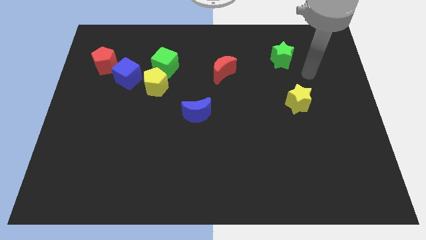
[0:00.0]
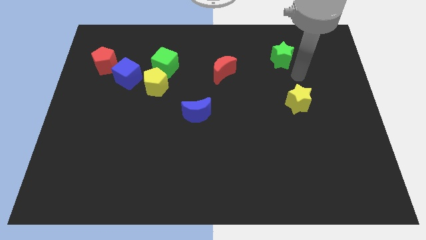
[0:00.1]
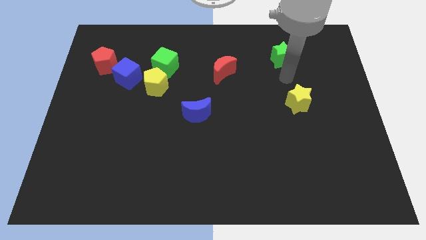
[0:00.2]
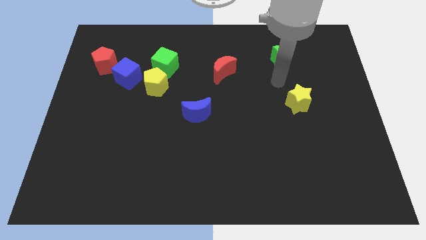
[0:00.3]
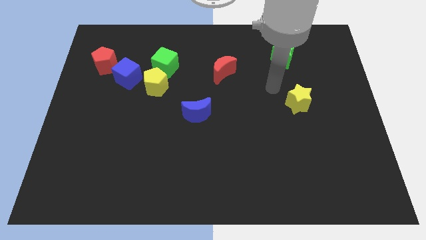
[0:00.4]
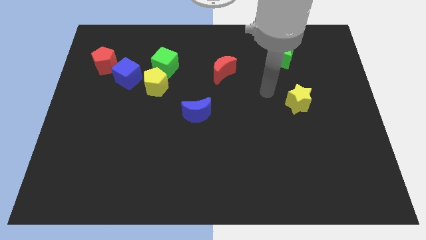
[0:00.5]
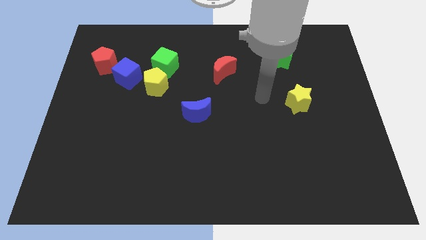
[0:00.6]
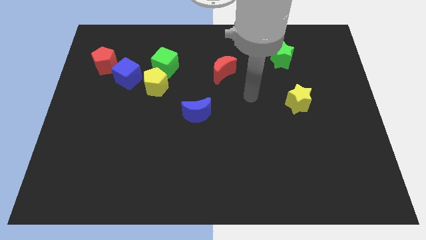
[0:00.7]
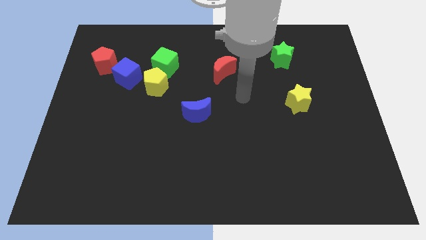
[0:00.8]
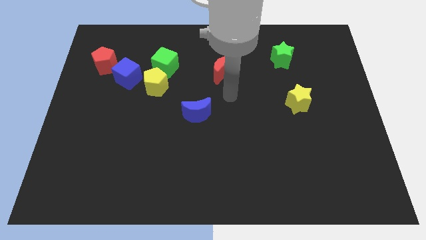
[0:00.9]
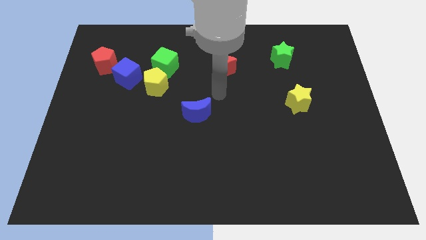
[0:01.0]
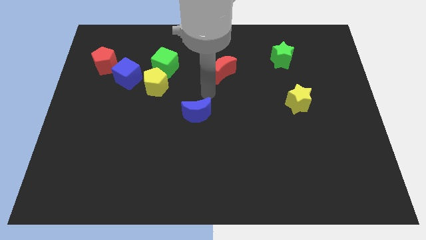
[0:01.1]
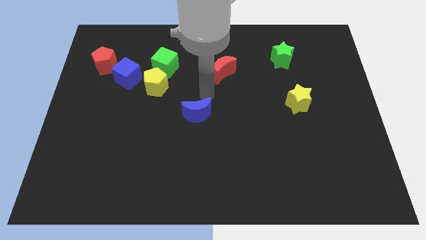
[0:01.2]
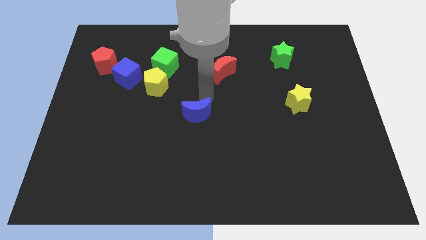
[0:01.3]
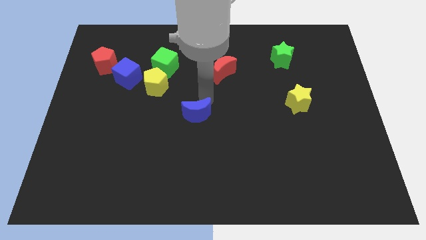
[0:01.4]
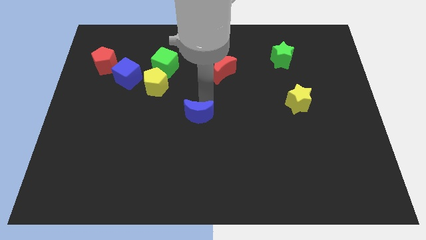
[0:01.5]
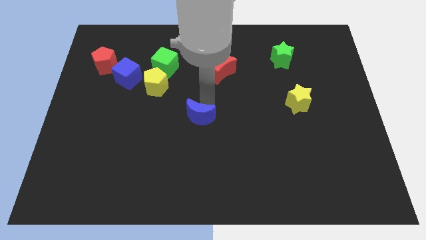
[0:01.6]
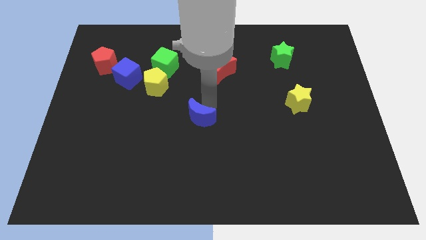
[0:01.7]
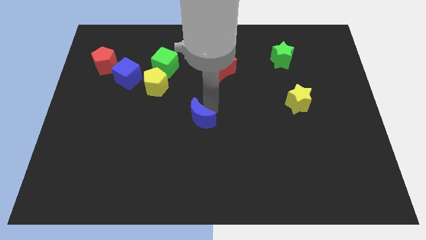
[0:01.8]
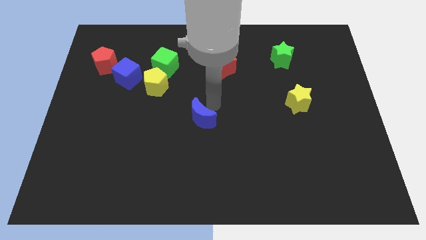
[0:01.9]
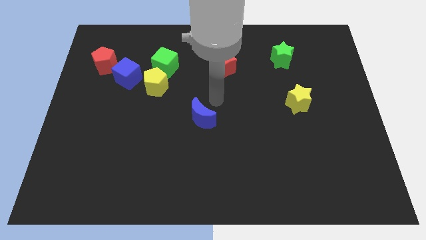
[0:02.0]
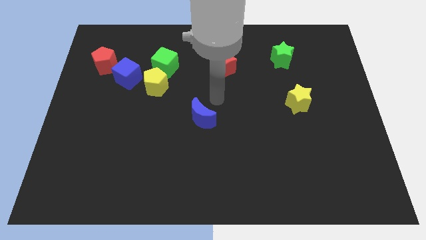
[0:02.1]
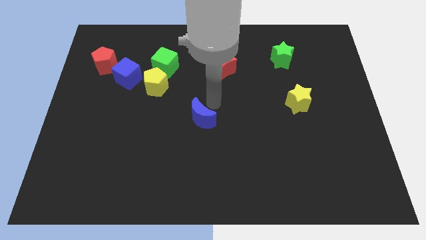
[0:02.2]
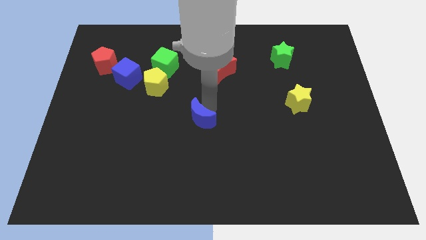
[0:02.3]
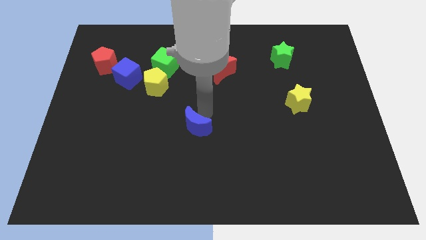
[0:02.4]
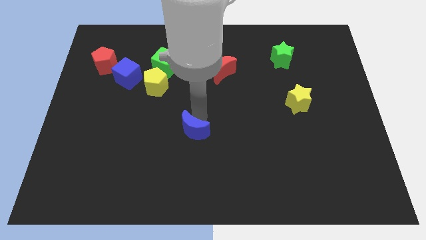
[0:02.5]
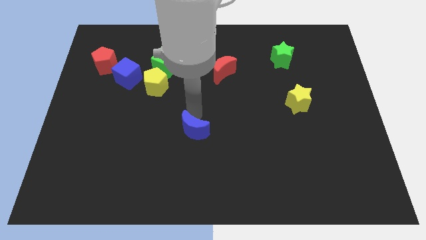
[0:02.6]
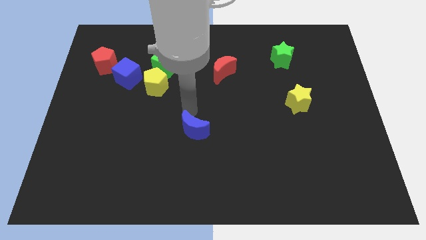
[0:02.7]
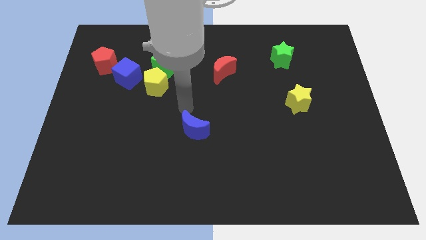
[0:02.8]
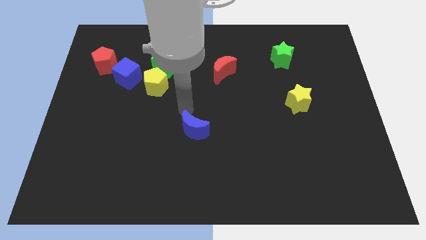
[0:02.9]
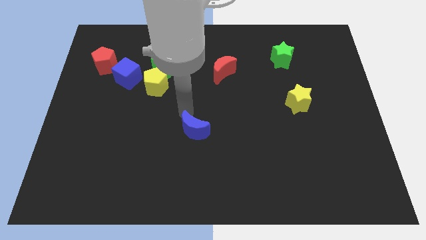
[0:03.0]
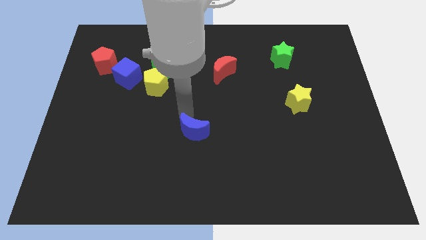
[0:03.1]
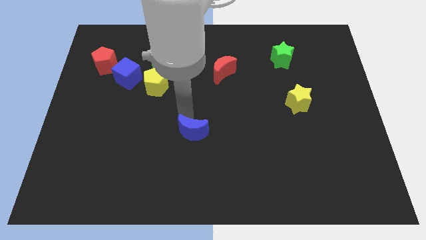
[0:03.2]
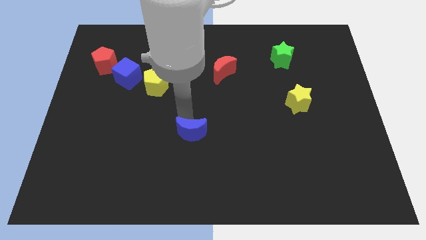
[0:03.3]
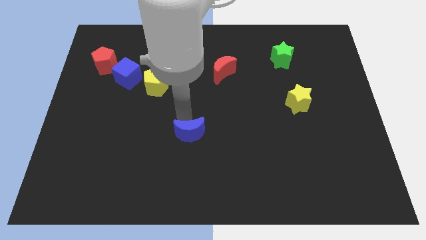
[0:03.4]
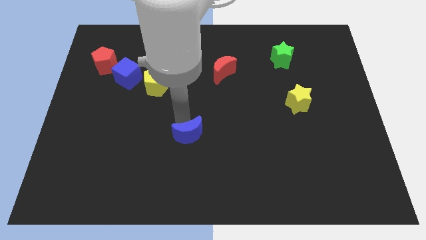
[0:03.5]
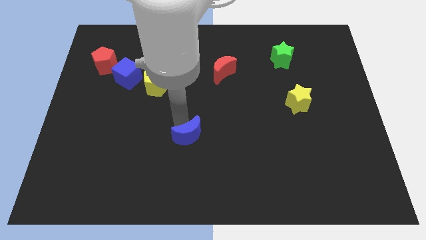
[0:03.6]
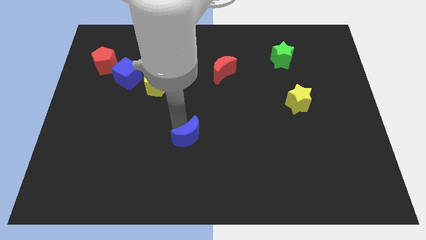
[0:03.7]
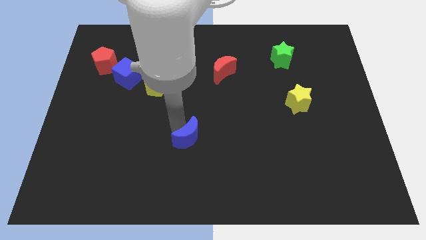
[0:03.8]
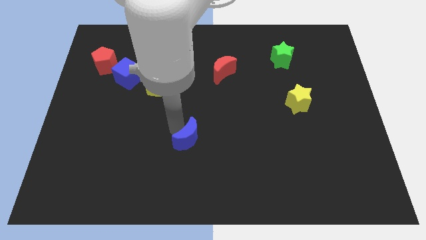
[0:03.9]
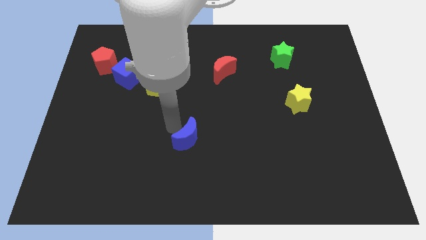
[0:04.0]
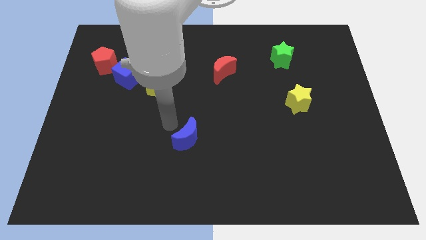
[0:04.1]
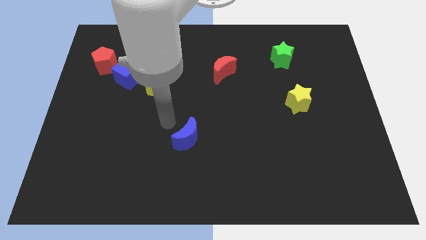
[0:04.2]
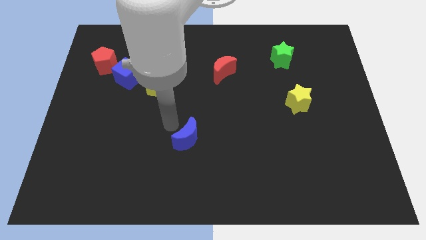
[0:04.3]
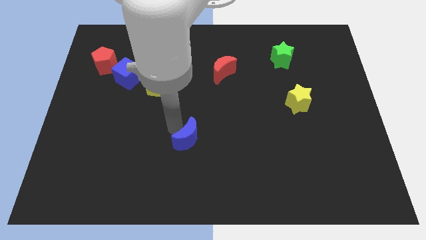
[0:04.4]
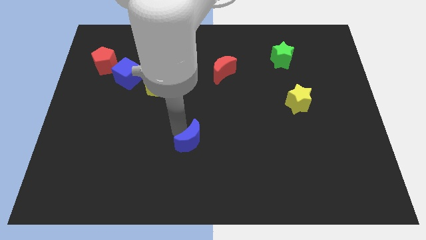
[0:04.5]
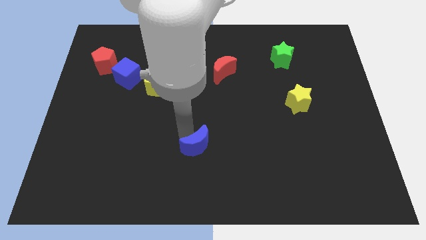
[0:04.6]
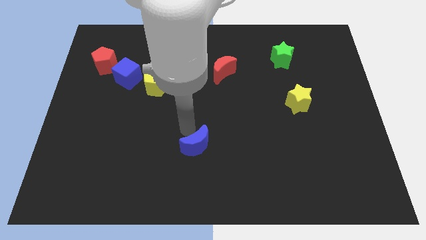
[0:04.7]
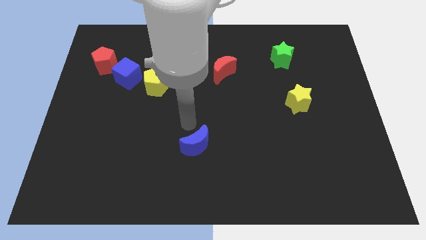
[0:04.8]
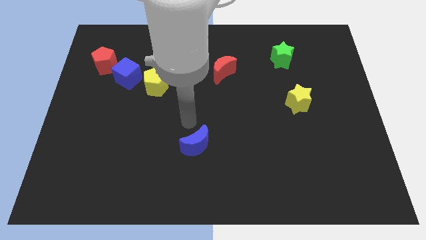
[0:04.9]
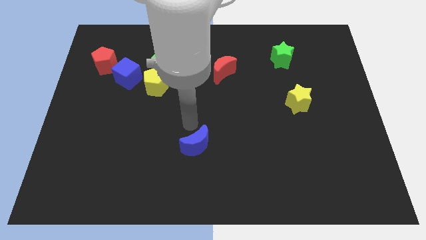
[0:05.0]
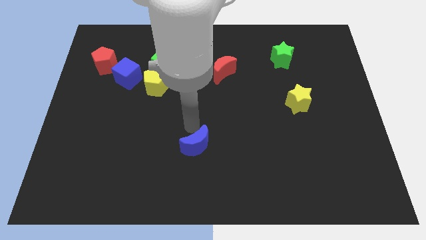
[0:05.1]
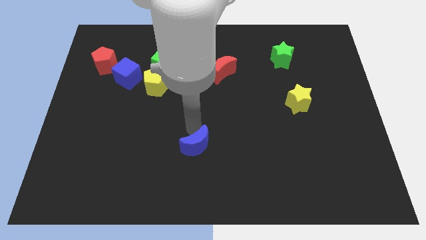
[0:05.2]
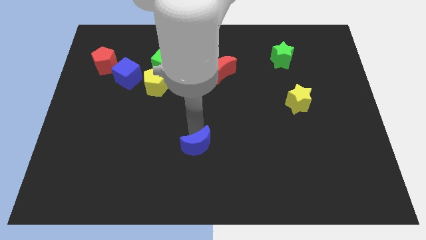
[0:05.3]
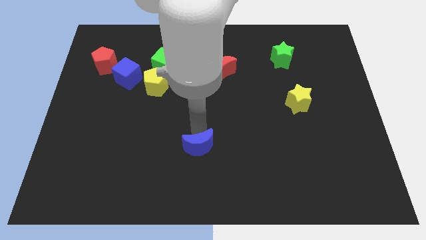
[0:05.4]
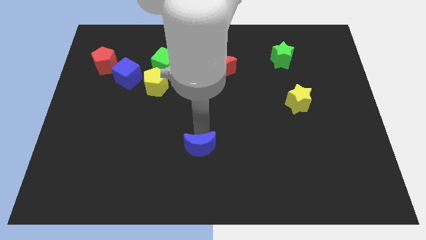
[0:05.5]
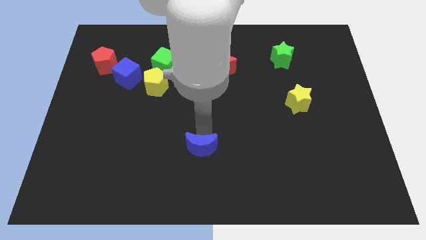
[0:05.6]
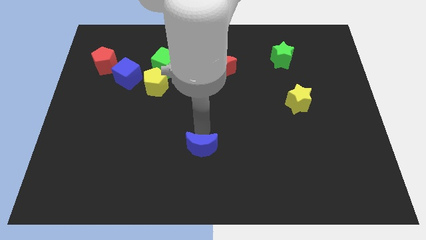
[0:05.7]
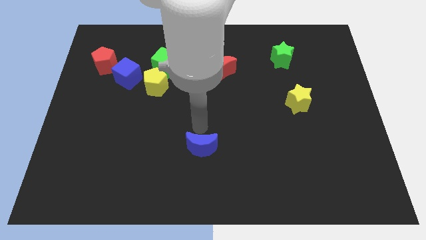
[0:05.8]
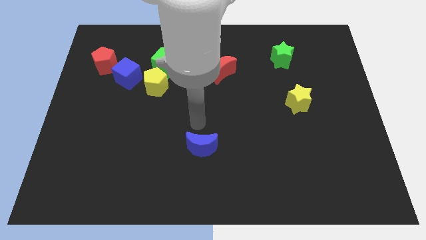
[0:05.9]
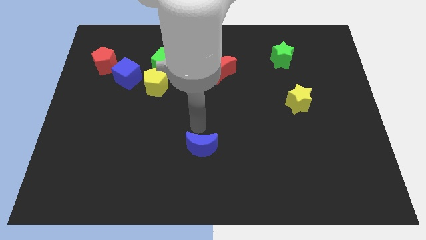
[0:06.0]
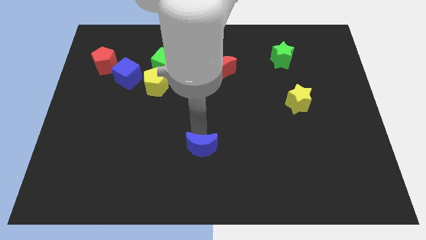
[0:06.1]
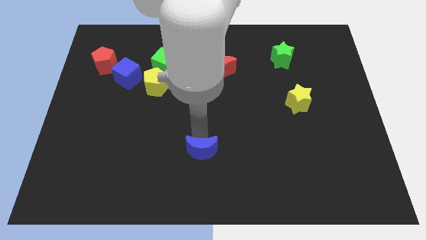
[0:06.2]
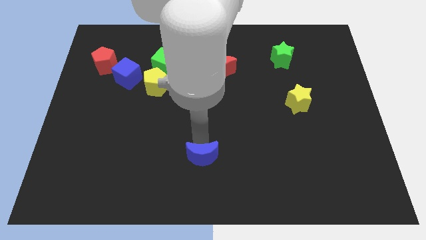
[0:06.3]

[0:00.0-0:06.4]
push the blue moon to the bottom

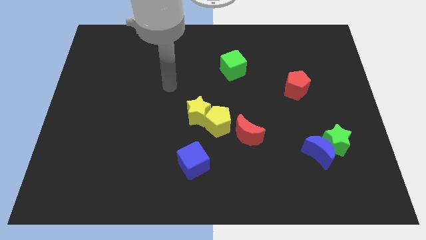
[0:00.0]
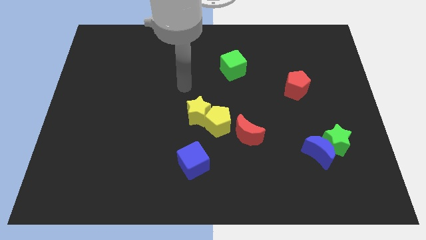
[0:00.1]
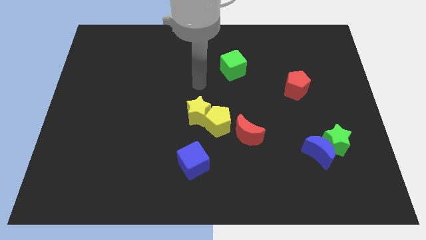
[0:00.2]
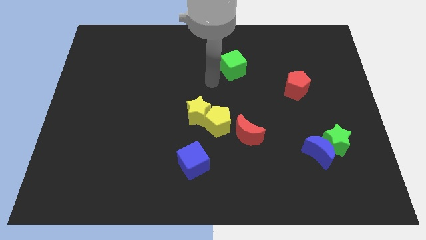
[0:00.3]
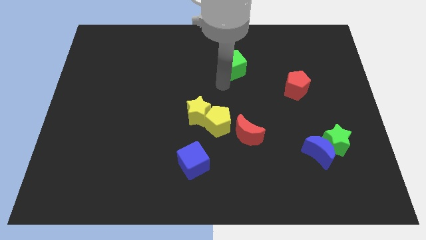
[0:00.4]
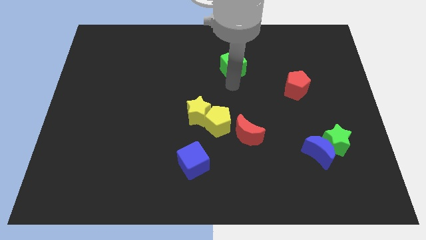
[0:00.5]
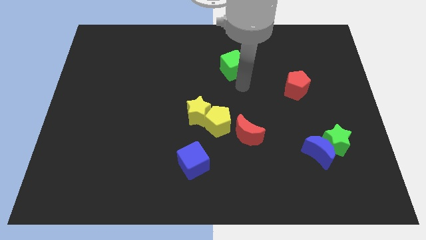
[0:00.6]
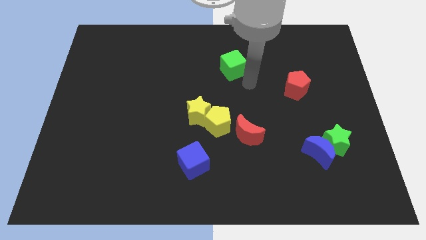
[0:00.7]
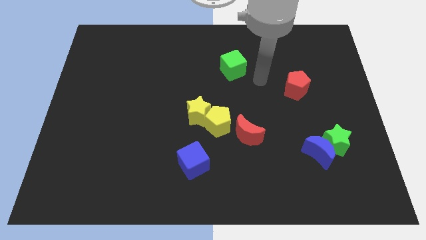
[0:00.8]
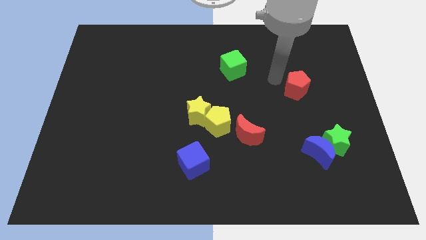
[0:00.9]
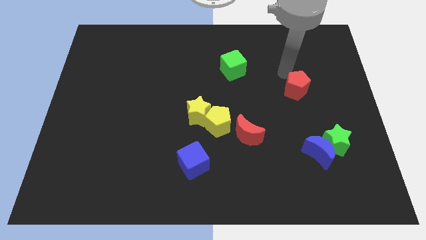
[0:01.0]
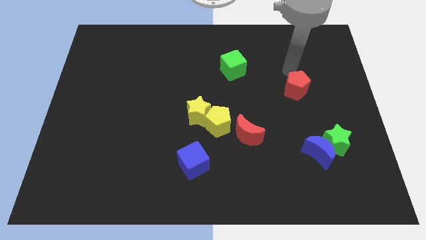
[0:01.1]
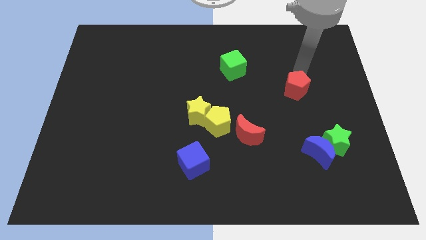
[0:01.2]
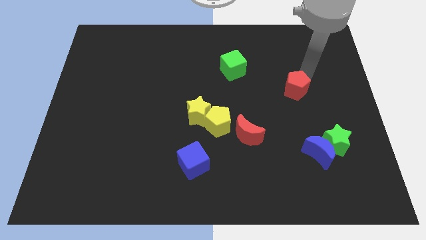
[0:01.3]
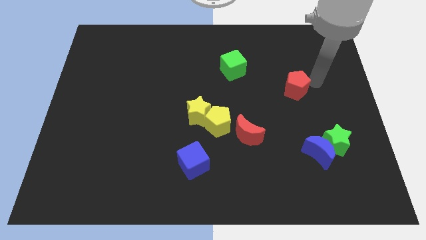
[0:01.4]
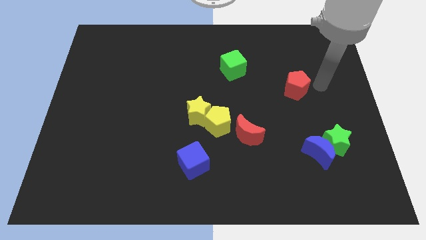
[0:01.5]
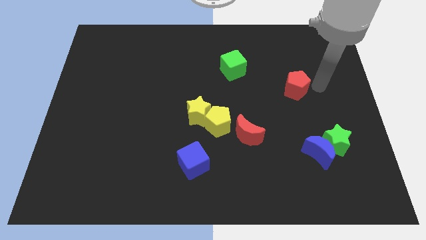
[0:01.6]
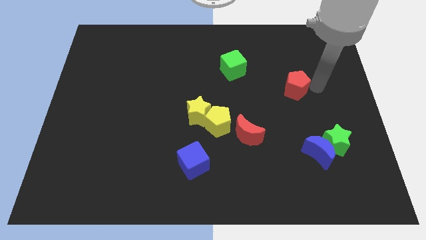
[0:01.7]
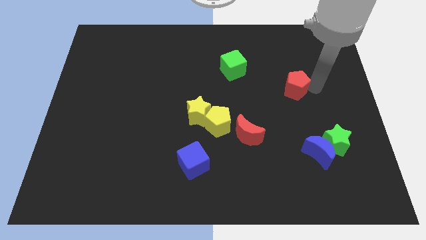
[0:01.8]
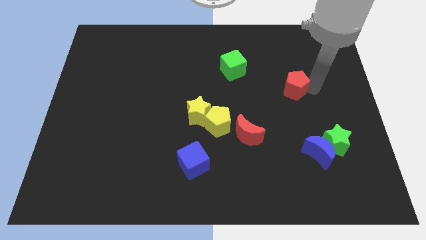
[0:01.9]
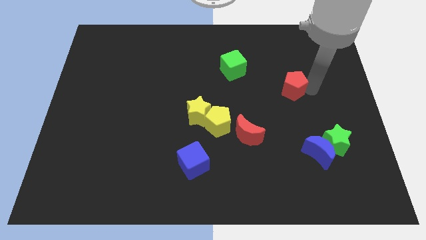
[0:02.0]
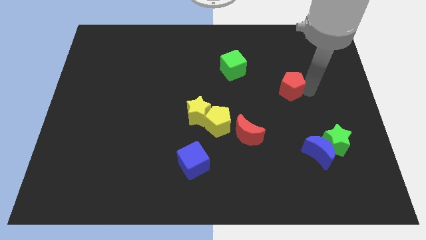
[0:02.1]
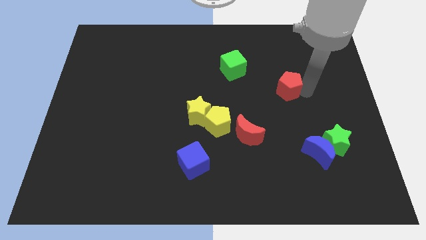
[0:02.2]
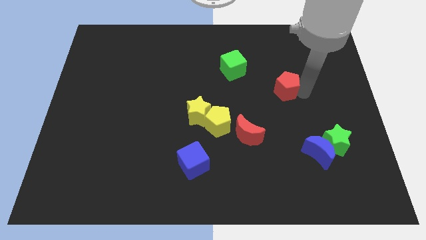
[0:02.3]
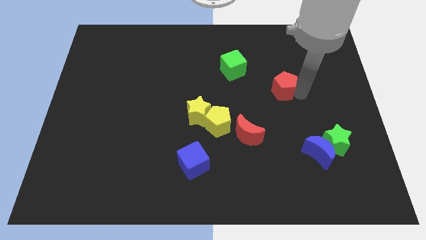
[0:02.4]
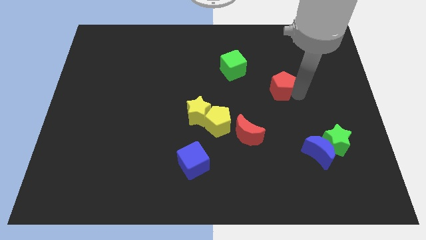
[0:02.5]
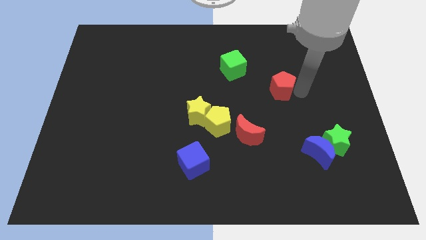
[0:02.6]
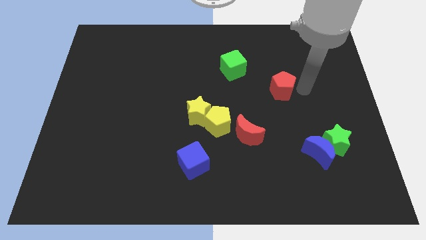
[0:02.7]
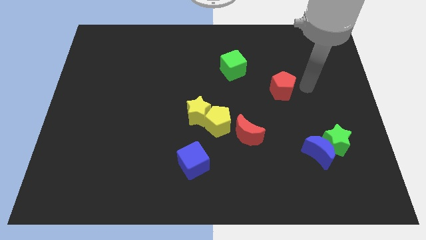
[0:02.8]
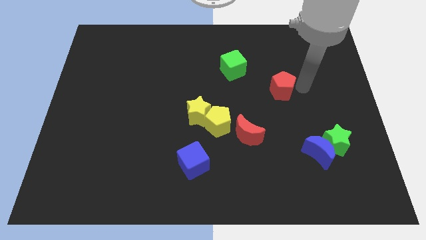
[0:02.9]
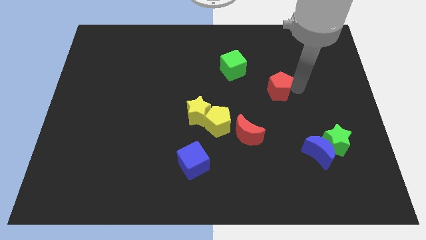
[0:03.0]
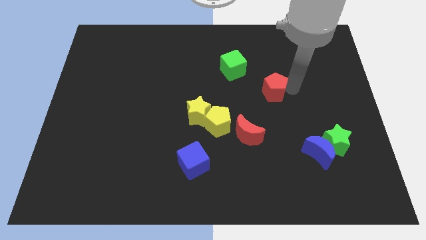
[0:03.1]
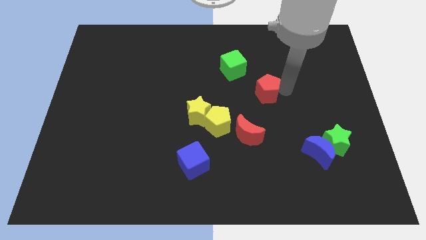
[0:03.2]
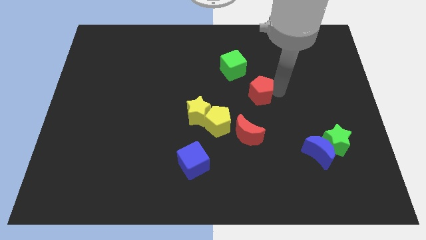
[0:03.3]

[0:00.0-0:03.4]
push the red pentagon to the center of the board
